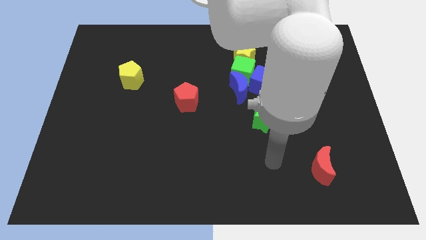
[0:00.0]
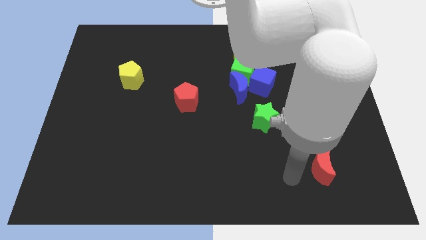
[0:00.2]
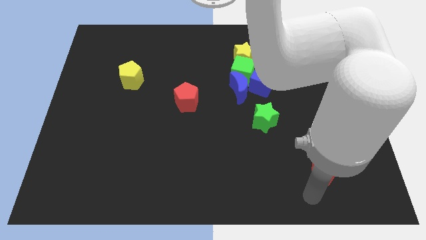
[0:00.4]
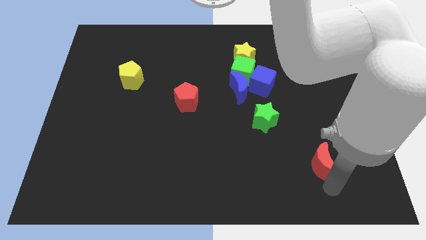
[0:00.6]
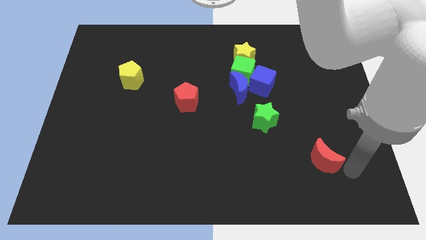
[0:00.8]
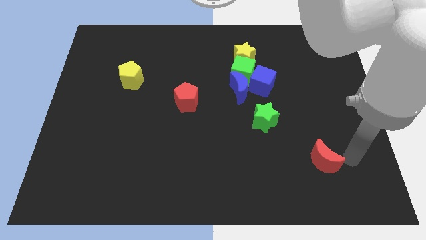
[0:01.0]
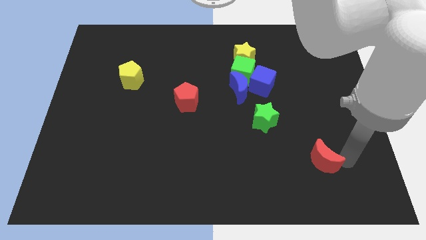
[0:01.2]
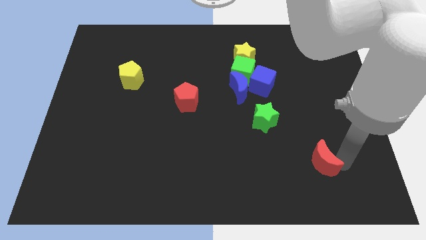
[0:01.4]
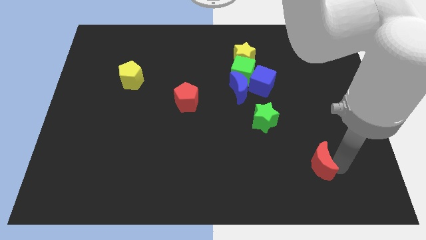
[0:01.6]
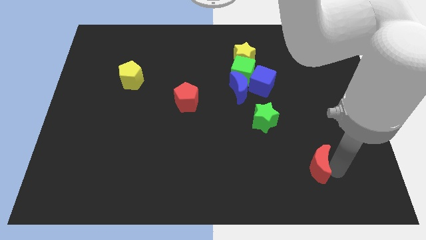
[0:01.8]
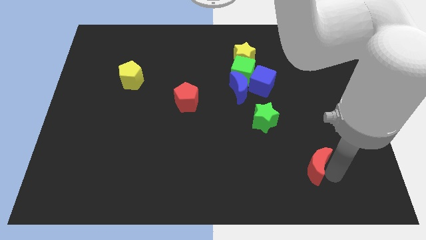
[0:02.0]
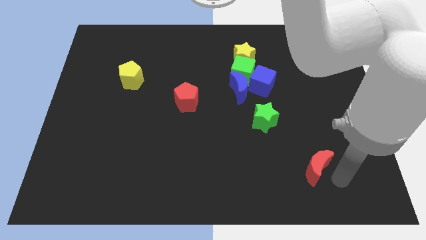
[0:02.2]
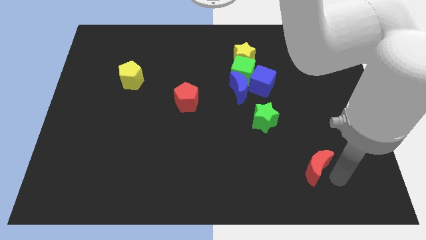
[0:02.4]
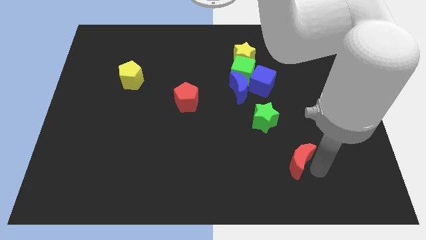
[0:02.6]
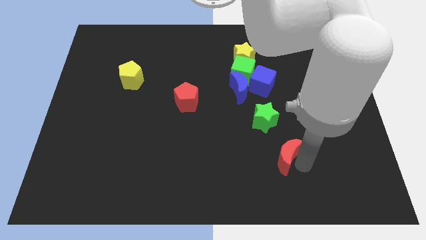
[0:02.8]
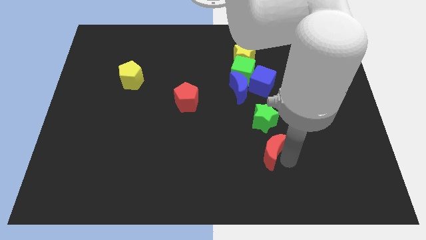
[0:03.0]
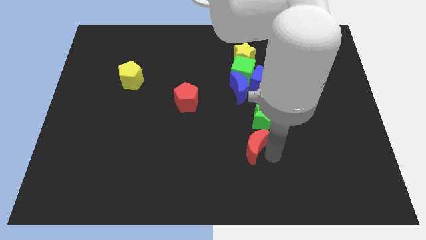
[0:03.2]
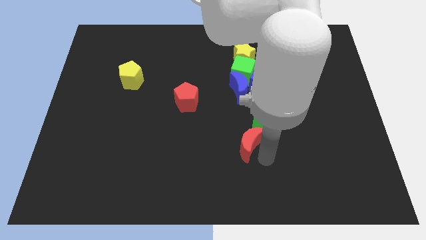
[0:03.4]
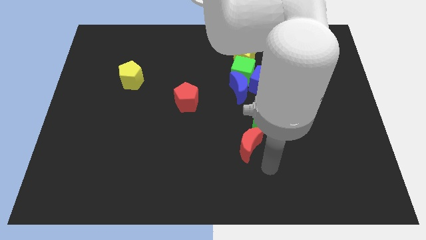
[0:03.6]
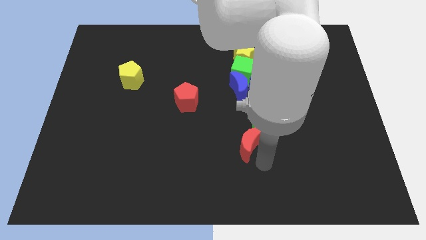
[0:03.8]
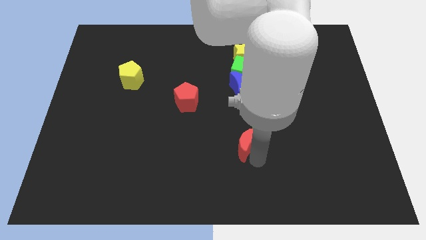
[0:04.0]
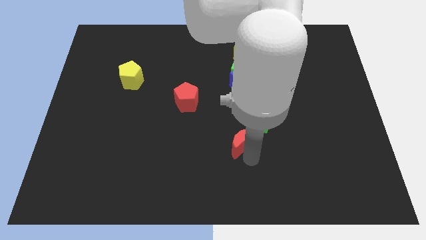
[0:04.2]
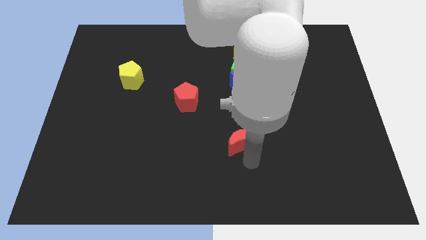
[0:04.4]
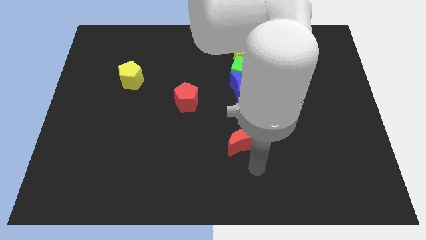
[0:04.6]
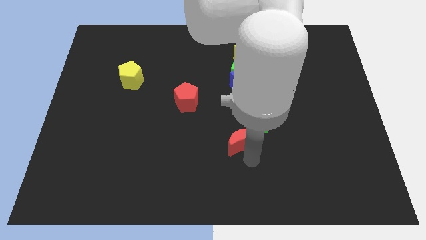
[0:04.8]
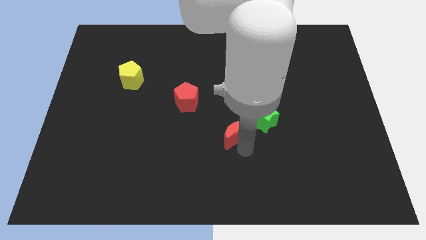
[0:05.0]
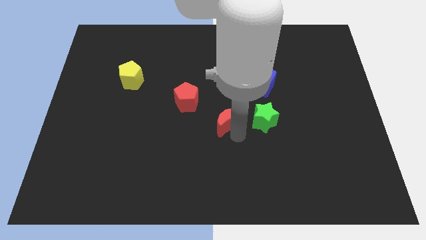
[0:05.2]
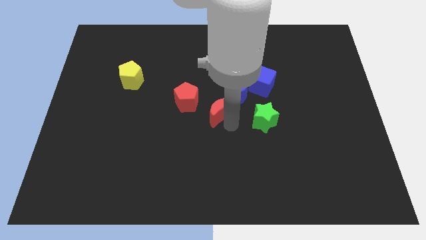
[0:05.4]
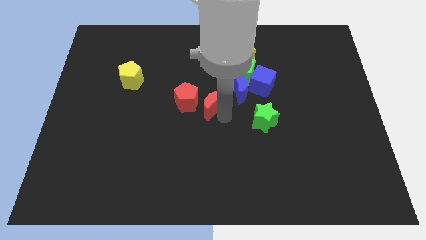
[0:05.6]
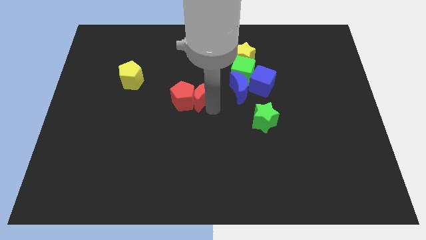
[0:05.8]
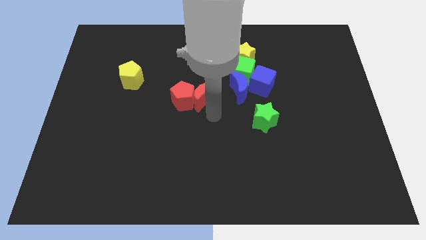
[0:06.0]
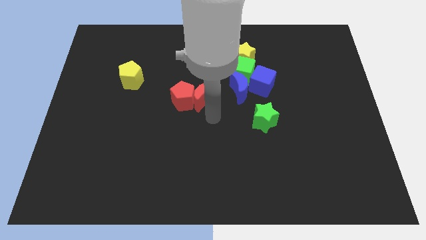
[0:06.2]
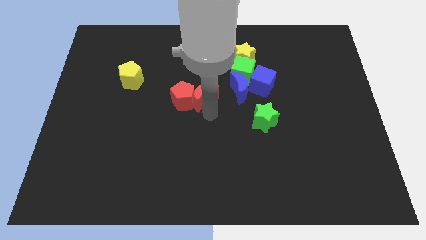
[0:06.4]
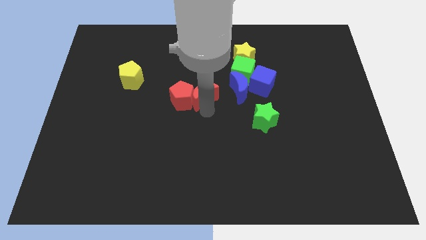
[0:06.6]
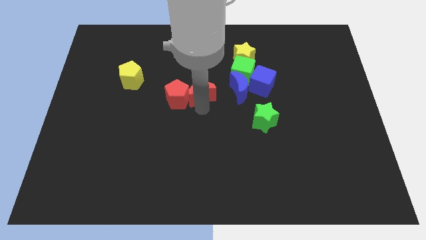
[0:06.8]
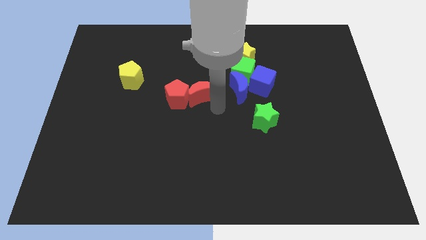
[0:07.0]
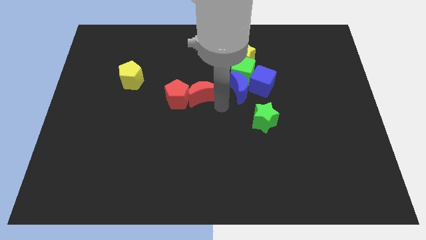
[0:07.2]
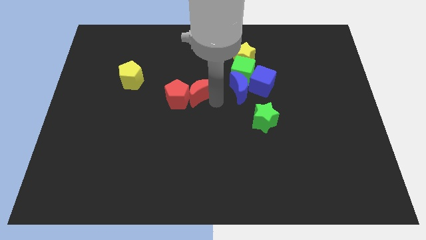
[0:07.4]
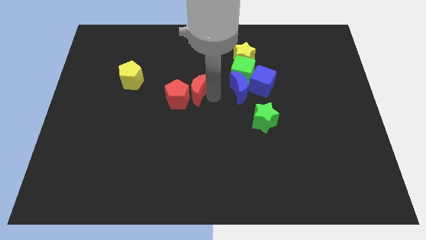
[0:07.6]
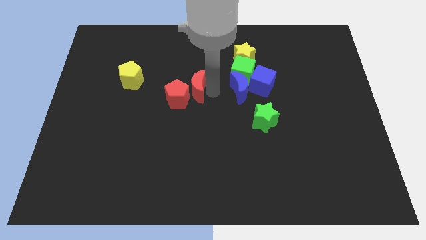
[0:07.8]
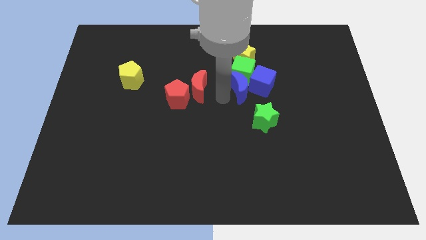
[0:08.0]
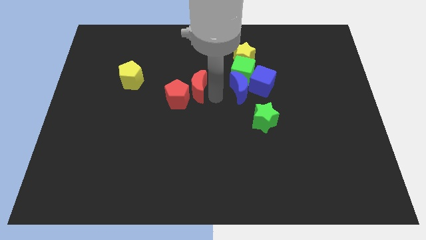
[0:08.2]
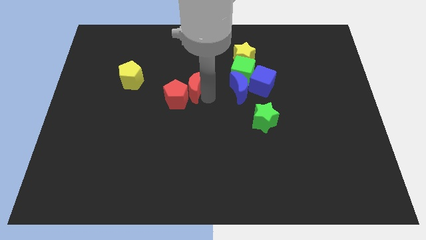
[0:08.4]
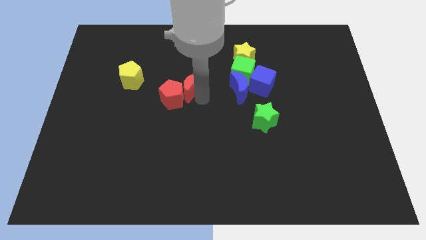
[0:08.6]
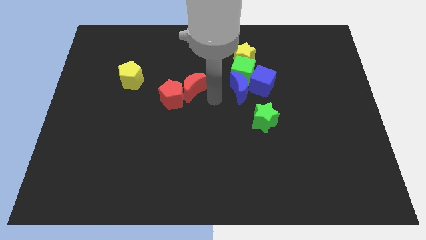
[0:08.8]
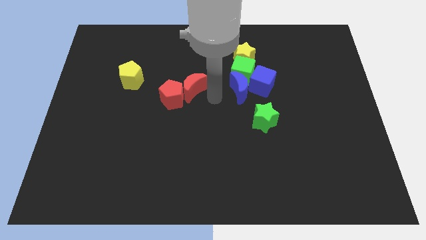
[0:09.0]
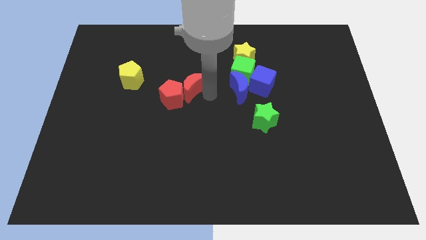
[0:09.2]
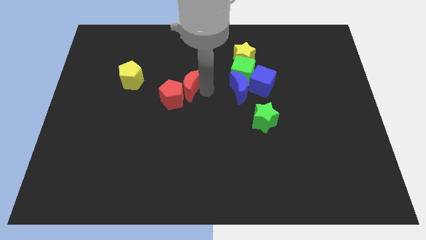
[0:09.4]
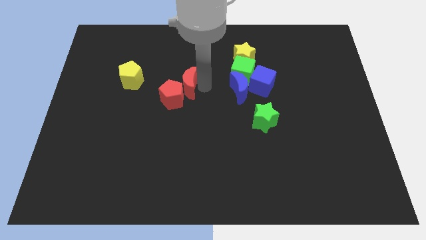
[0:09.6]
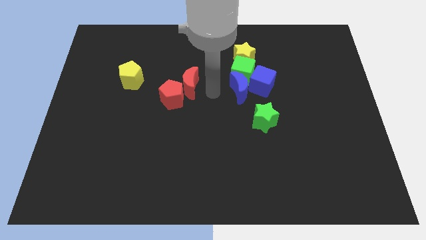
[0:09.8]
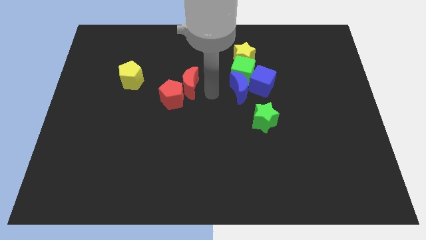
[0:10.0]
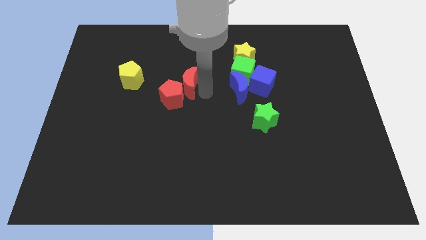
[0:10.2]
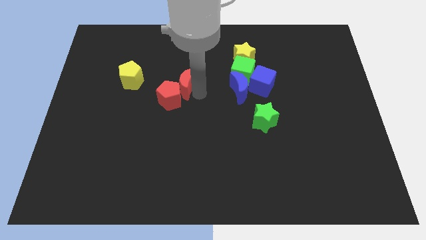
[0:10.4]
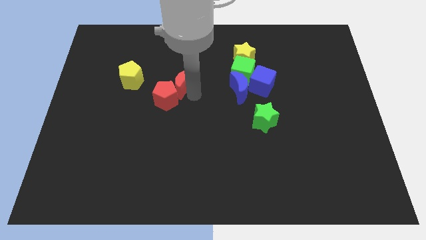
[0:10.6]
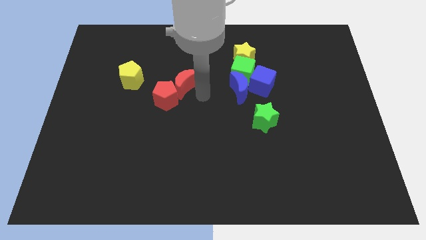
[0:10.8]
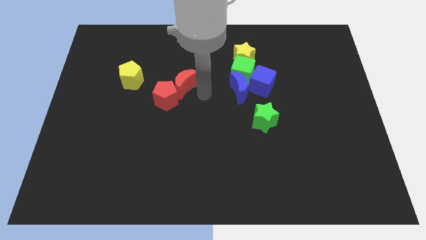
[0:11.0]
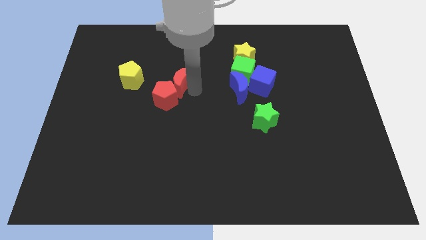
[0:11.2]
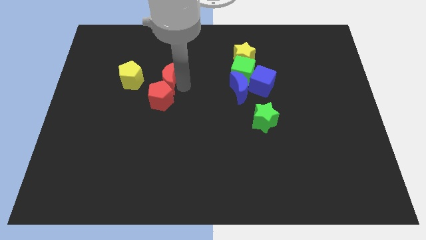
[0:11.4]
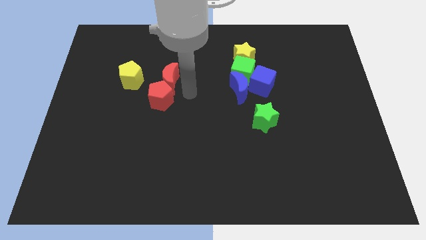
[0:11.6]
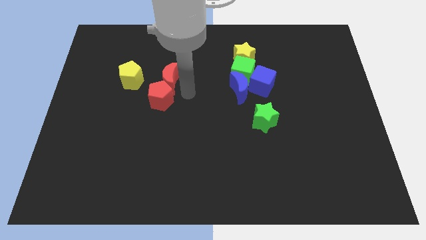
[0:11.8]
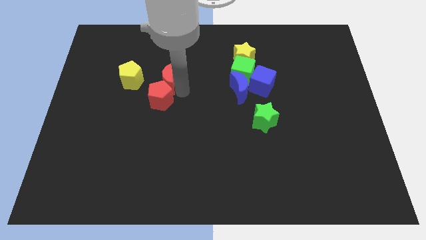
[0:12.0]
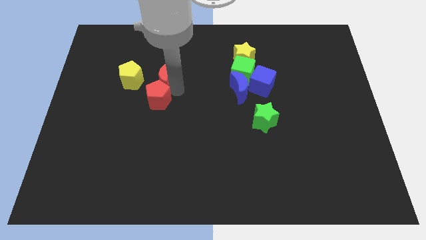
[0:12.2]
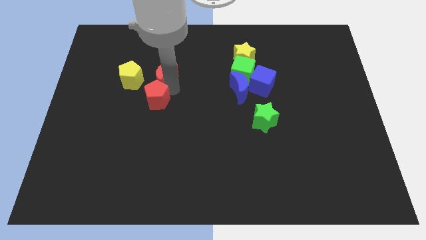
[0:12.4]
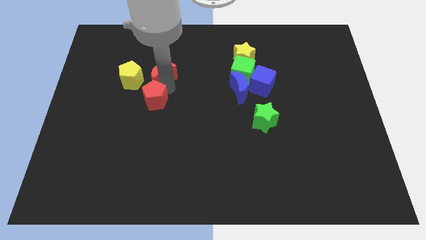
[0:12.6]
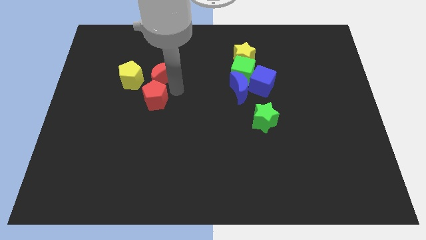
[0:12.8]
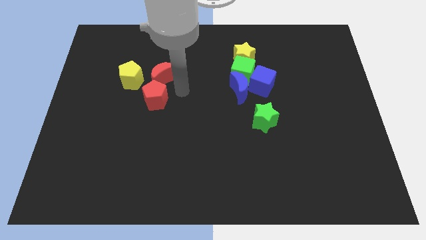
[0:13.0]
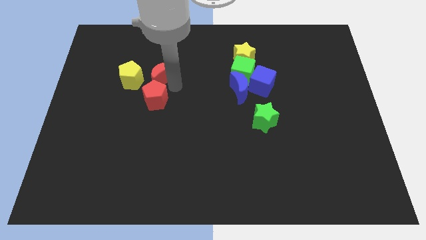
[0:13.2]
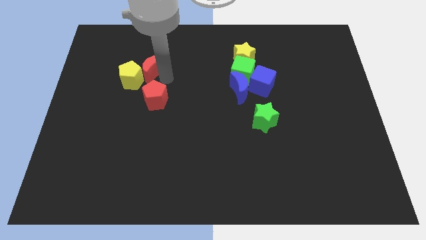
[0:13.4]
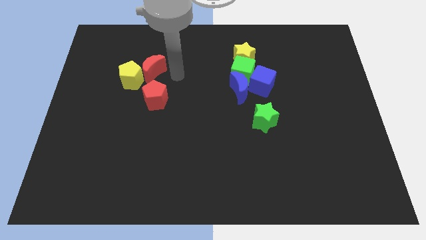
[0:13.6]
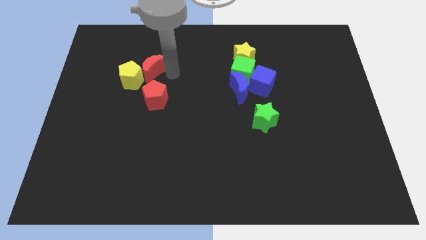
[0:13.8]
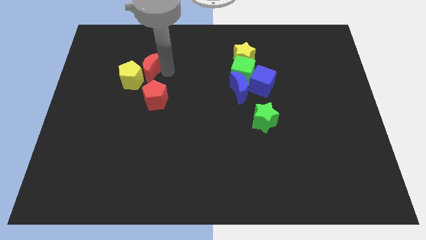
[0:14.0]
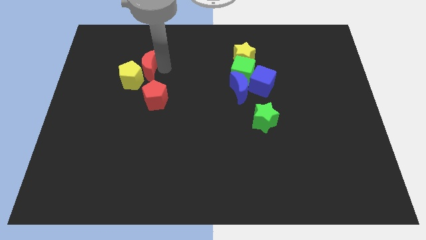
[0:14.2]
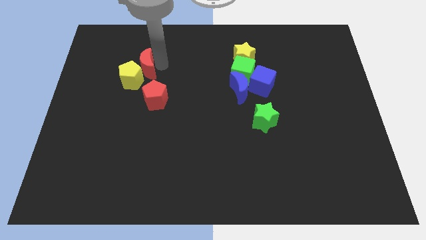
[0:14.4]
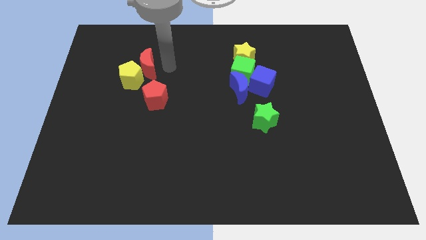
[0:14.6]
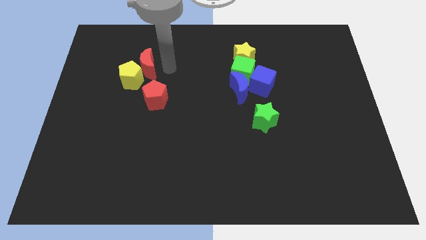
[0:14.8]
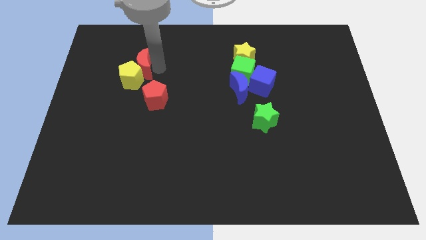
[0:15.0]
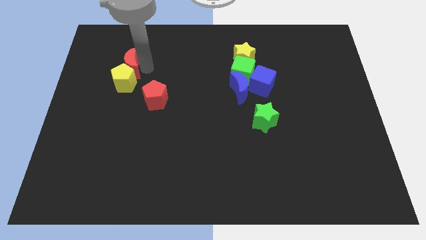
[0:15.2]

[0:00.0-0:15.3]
push the red moon to the top left of the yellow pentagon
